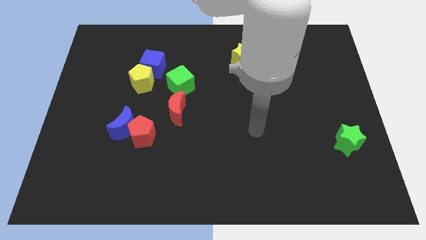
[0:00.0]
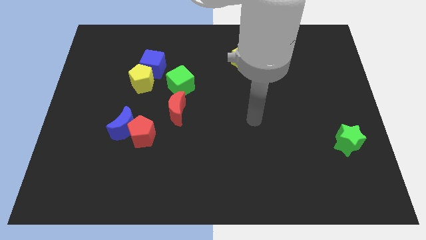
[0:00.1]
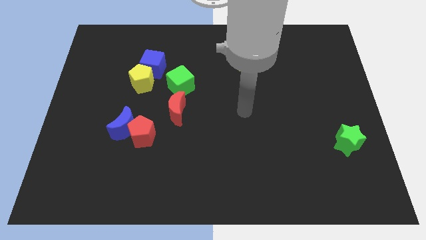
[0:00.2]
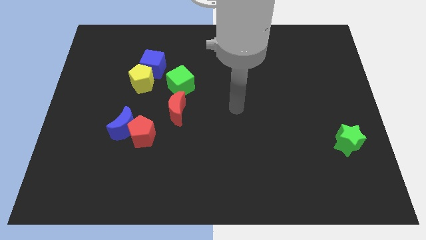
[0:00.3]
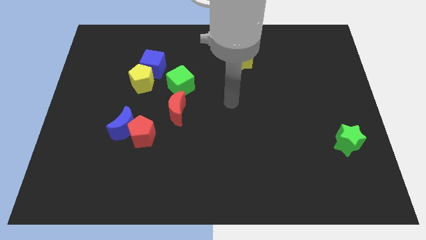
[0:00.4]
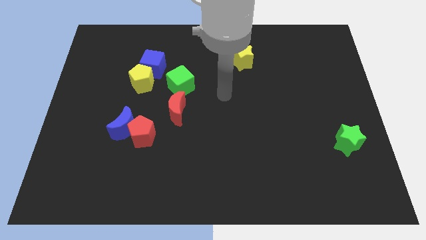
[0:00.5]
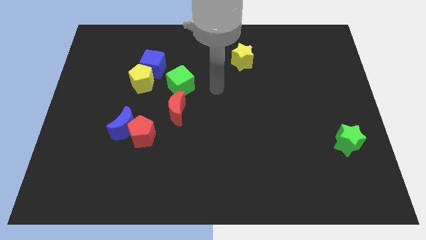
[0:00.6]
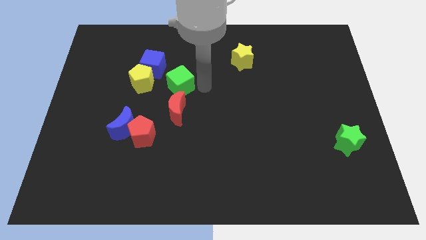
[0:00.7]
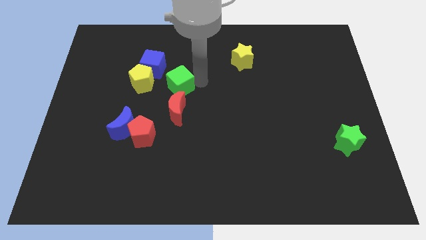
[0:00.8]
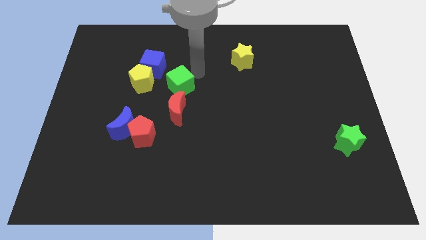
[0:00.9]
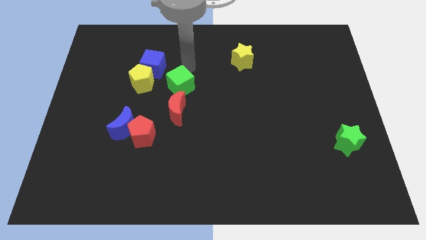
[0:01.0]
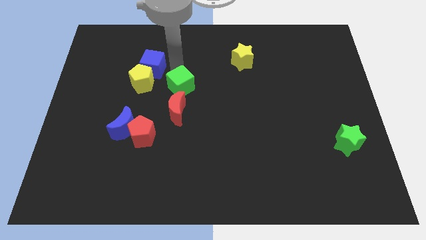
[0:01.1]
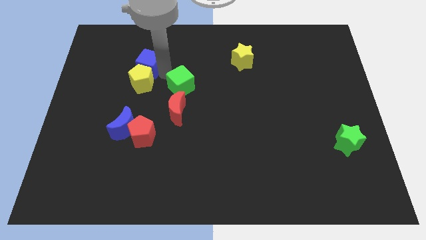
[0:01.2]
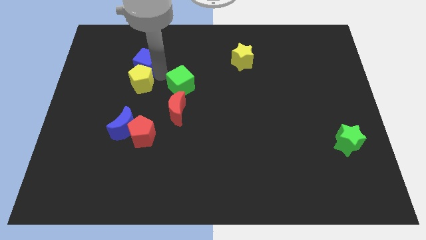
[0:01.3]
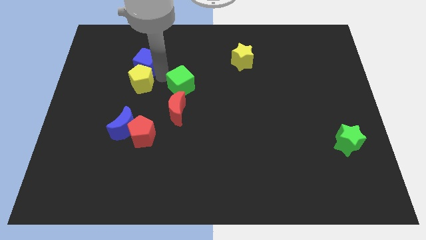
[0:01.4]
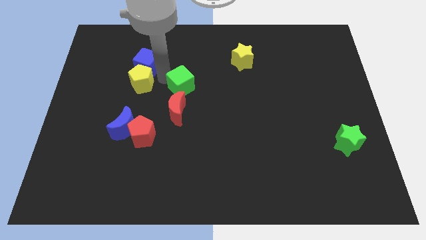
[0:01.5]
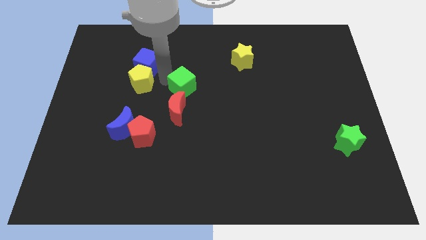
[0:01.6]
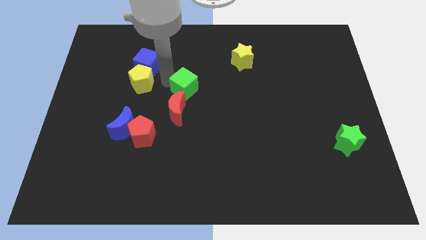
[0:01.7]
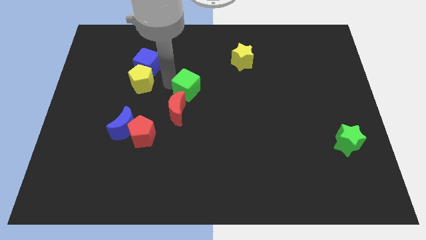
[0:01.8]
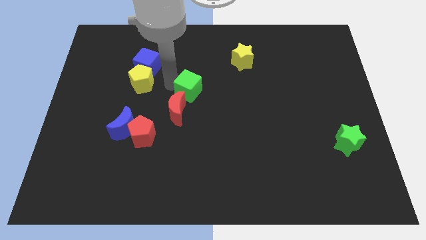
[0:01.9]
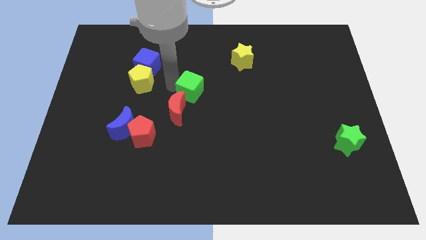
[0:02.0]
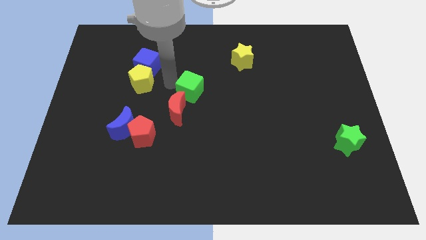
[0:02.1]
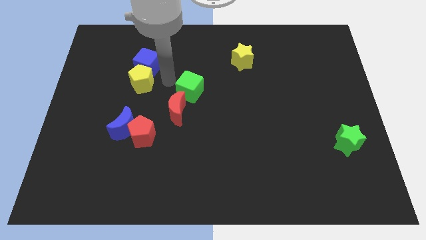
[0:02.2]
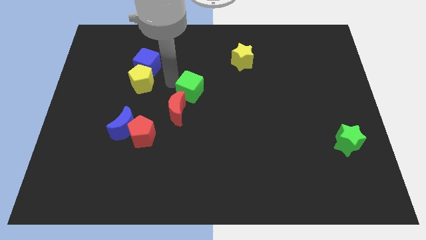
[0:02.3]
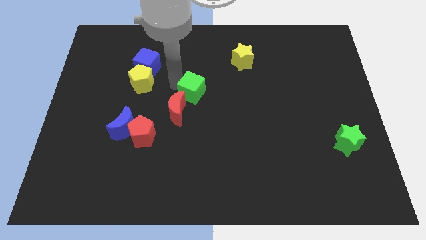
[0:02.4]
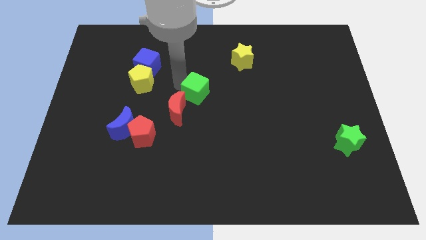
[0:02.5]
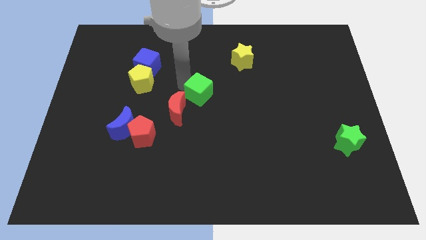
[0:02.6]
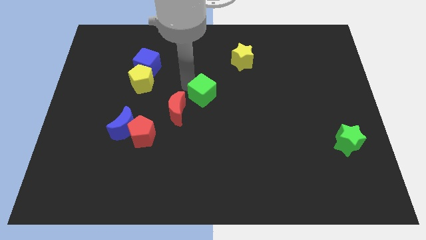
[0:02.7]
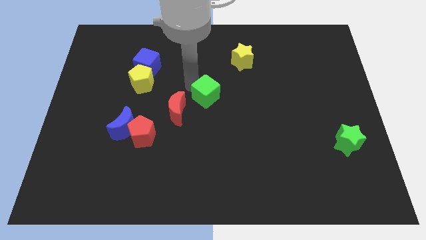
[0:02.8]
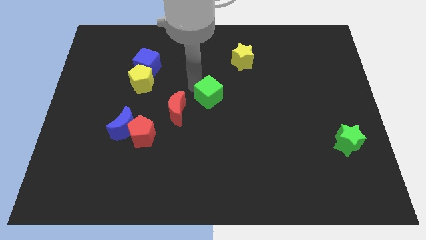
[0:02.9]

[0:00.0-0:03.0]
push the green cube downwards and then to the right a bit

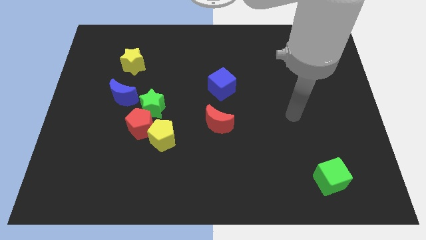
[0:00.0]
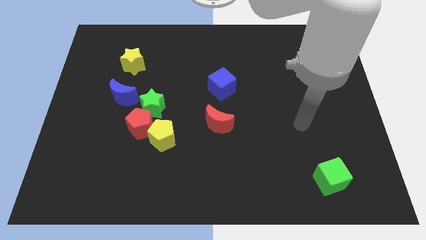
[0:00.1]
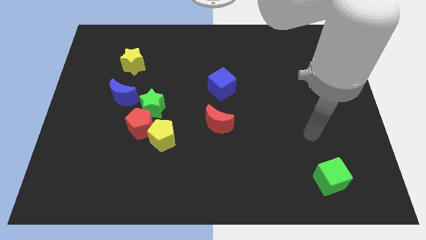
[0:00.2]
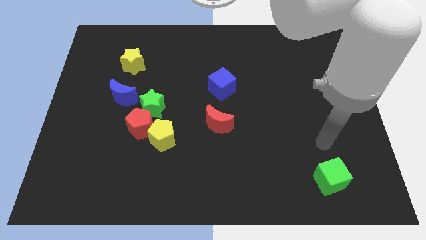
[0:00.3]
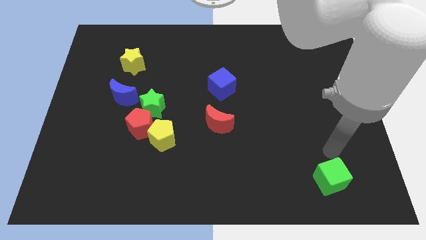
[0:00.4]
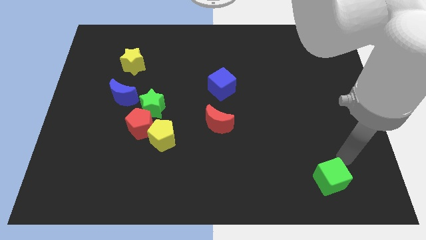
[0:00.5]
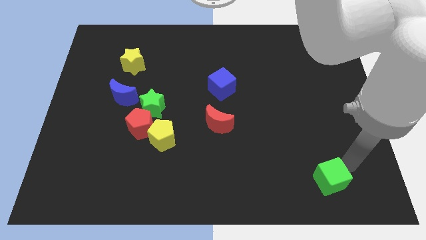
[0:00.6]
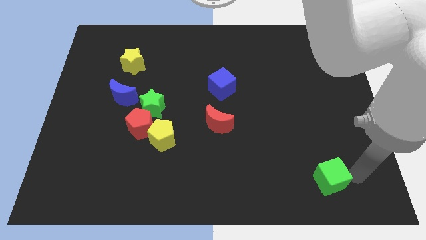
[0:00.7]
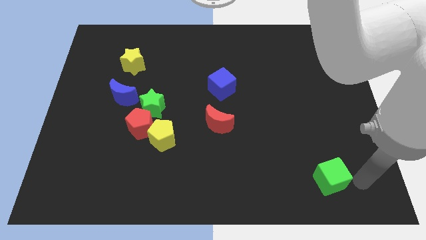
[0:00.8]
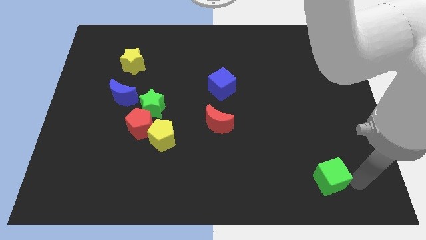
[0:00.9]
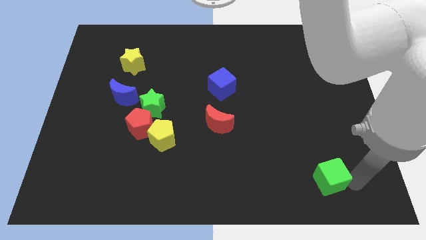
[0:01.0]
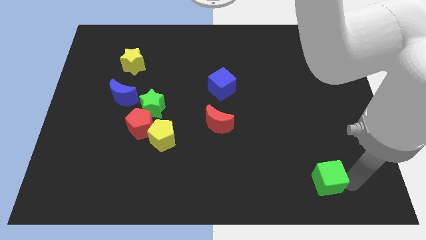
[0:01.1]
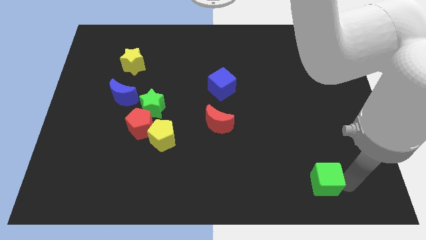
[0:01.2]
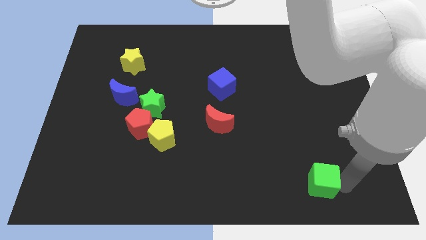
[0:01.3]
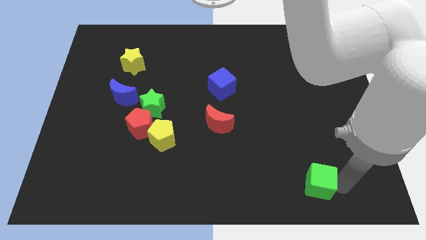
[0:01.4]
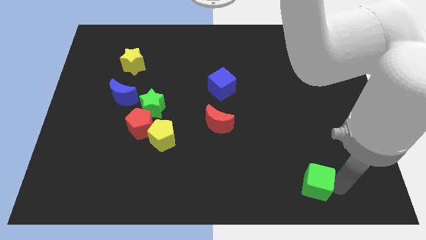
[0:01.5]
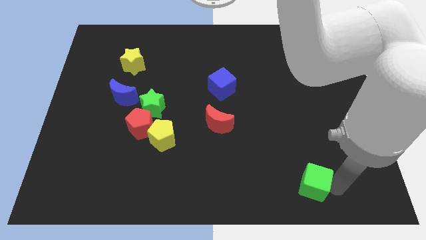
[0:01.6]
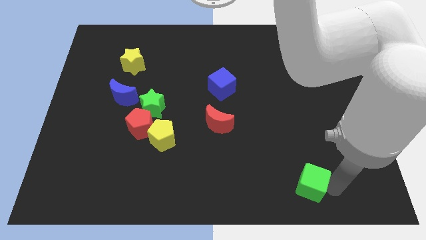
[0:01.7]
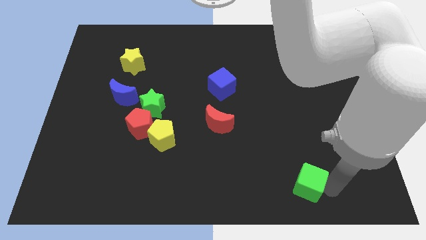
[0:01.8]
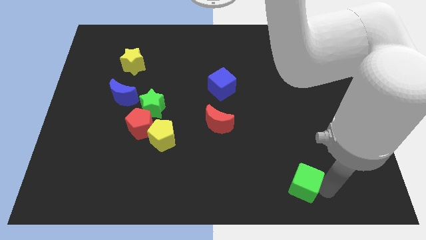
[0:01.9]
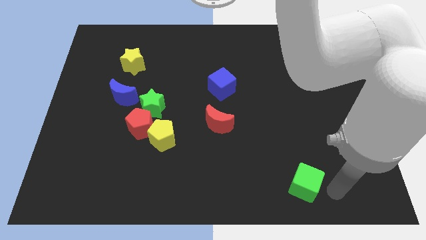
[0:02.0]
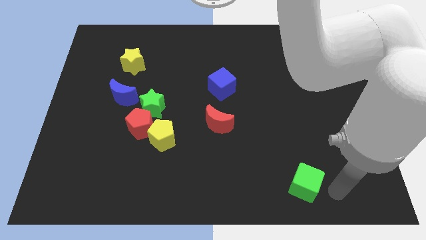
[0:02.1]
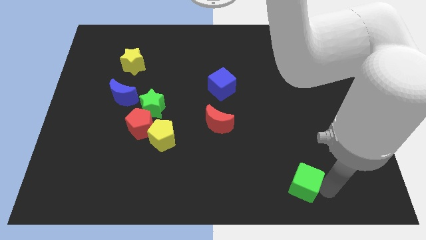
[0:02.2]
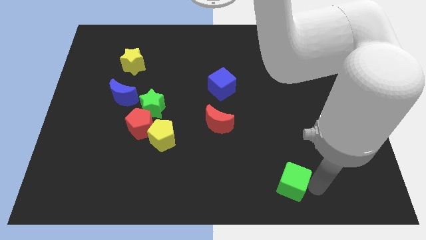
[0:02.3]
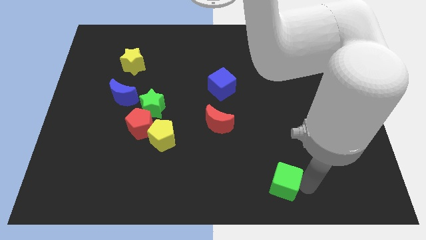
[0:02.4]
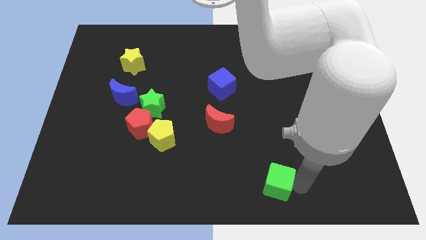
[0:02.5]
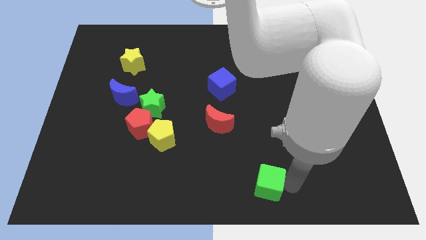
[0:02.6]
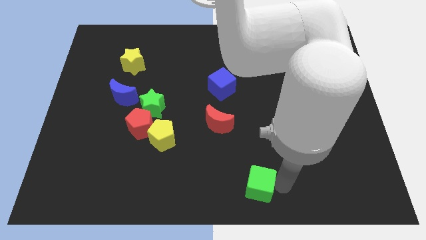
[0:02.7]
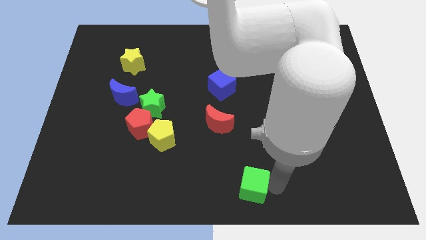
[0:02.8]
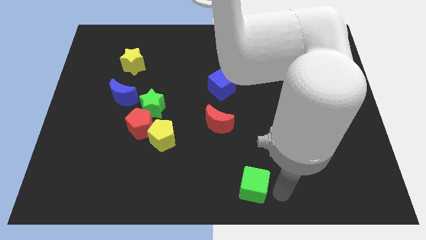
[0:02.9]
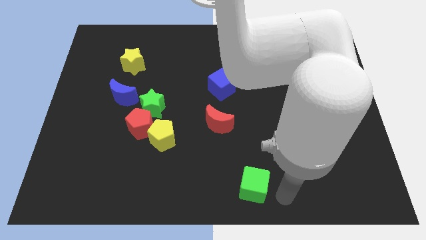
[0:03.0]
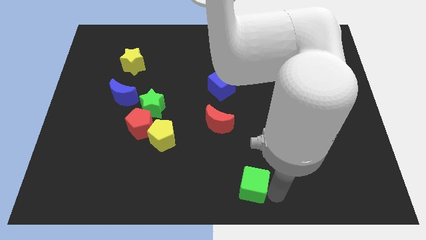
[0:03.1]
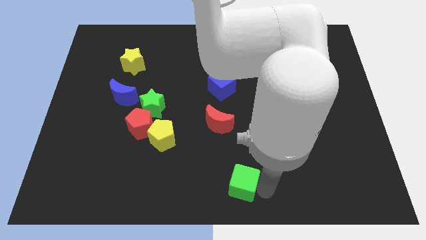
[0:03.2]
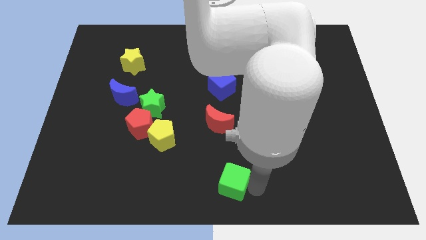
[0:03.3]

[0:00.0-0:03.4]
move the green cube left

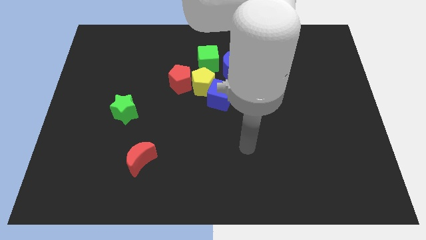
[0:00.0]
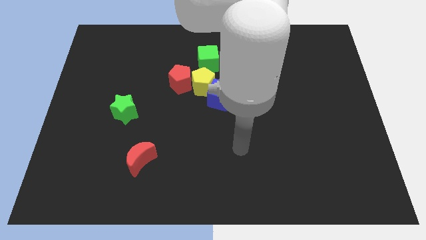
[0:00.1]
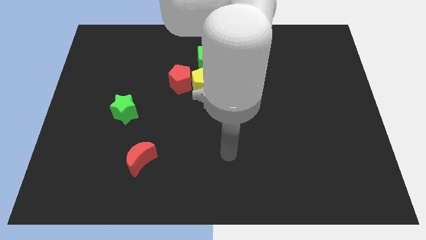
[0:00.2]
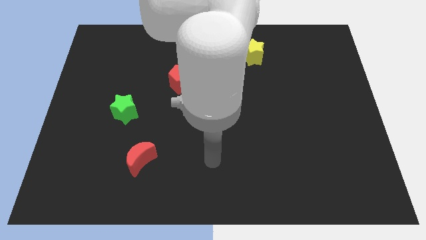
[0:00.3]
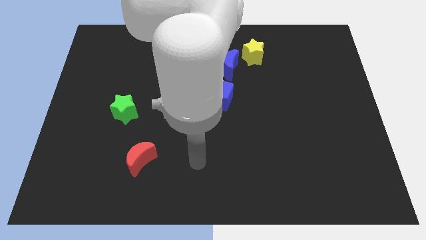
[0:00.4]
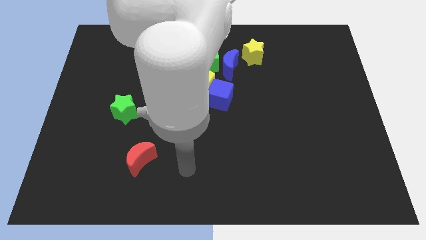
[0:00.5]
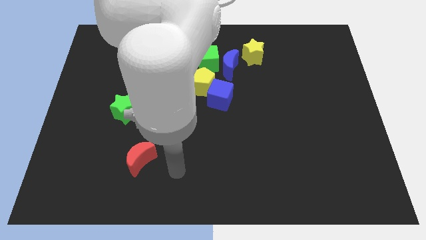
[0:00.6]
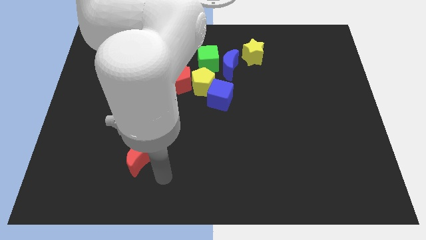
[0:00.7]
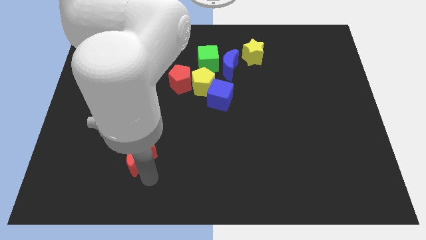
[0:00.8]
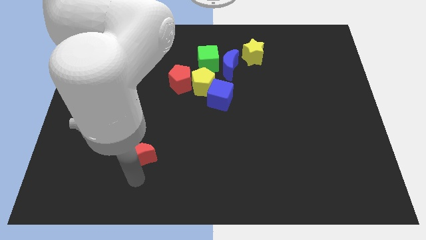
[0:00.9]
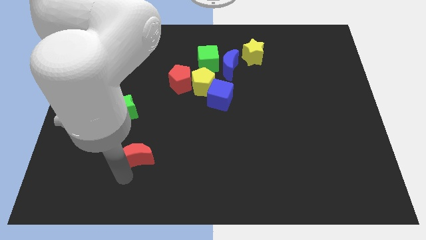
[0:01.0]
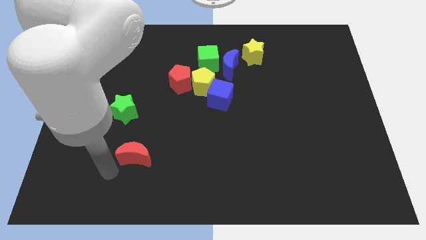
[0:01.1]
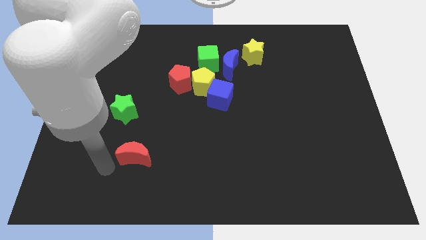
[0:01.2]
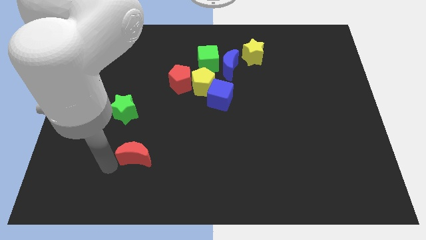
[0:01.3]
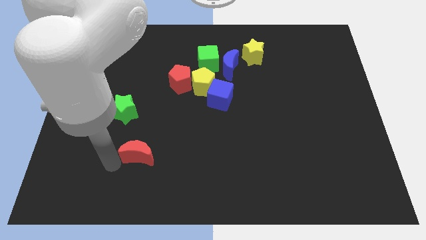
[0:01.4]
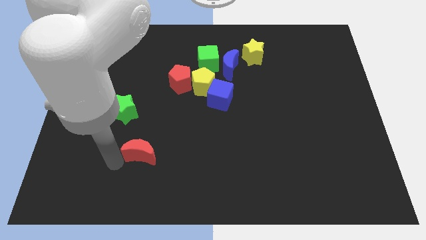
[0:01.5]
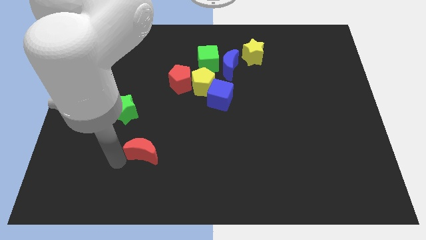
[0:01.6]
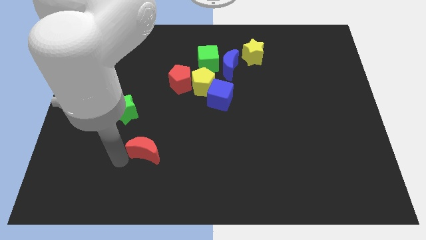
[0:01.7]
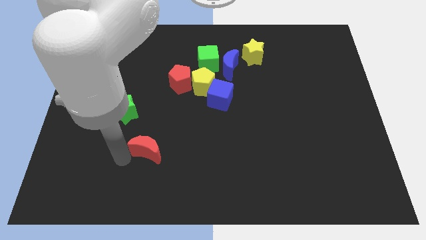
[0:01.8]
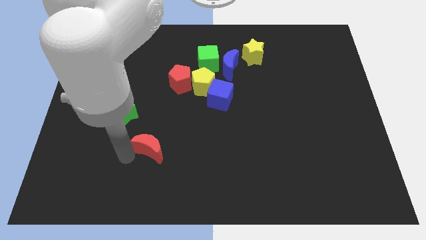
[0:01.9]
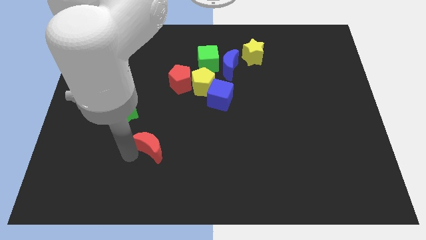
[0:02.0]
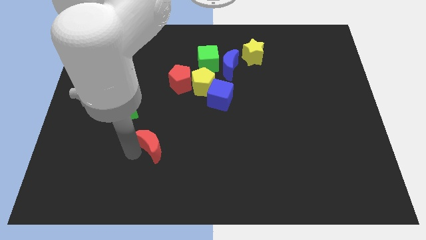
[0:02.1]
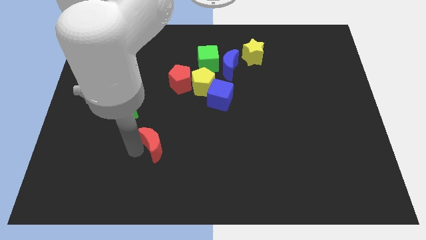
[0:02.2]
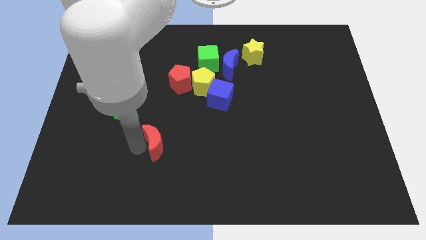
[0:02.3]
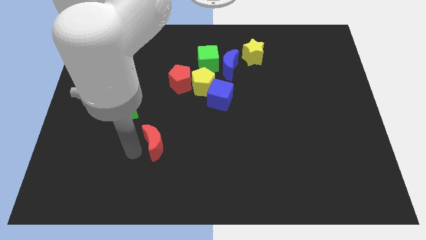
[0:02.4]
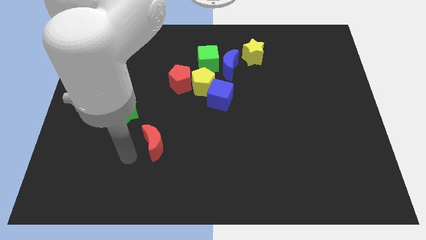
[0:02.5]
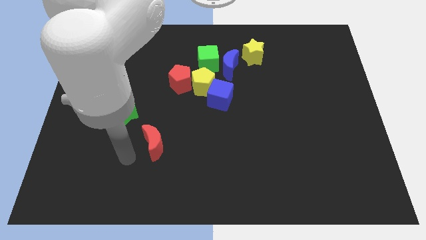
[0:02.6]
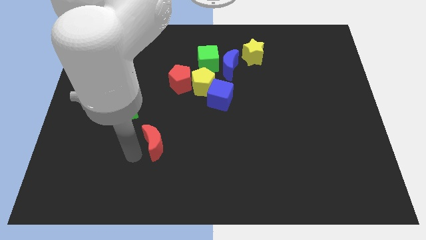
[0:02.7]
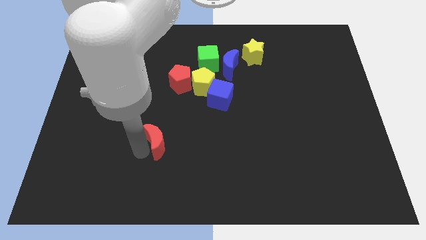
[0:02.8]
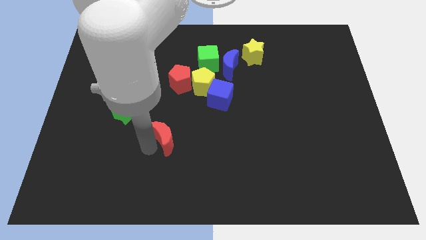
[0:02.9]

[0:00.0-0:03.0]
move the red moon slightly upwards and right
